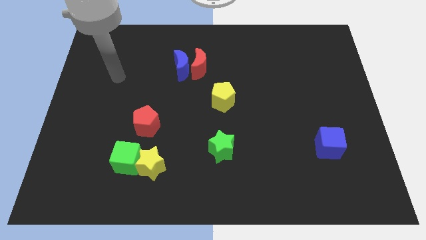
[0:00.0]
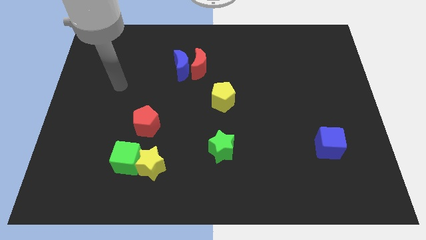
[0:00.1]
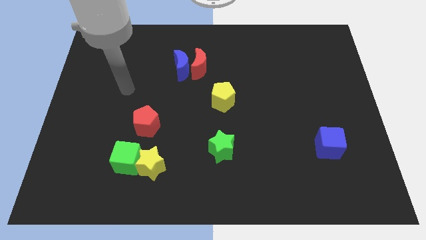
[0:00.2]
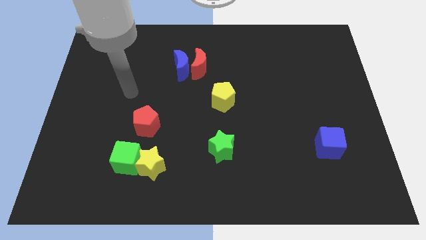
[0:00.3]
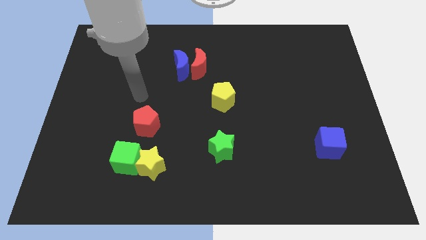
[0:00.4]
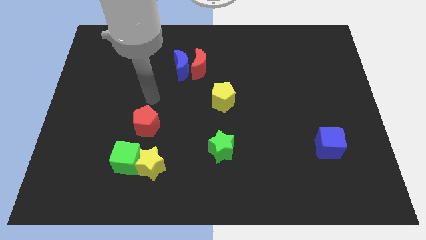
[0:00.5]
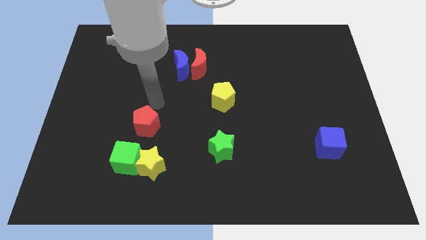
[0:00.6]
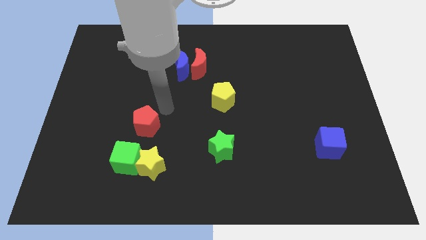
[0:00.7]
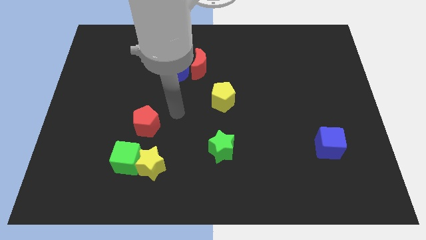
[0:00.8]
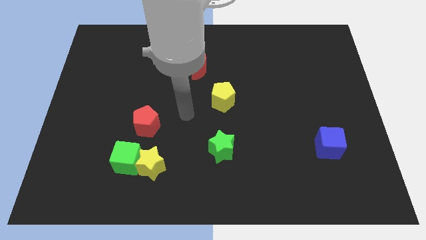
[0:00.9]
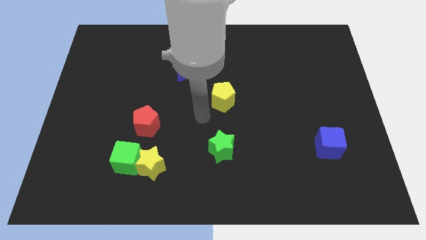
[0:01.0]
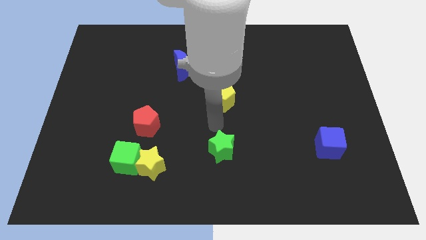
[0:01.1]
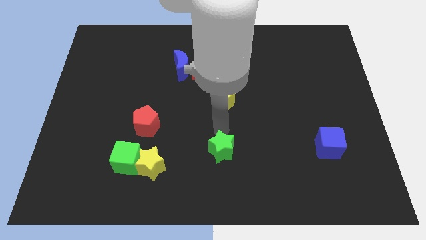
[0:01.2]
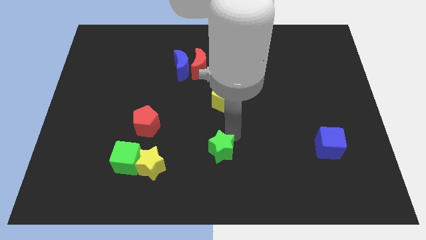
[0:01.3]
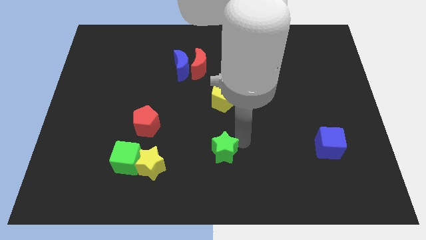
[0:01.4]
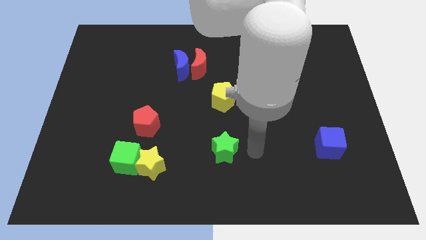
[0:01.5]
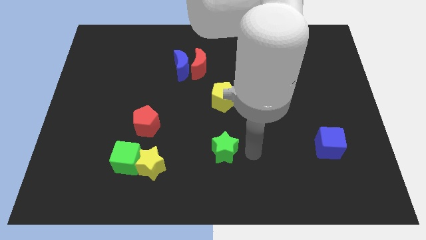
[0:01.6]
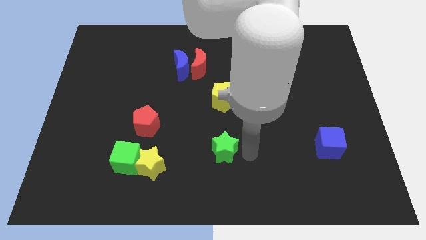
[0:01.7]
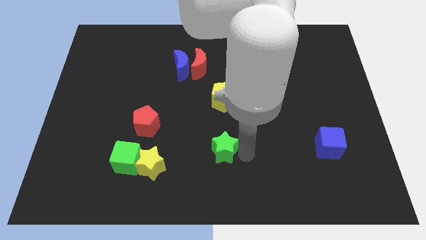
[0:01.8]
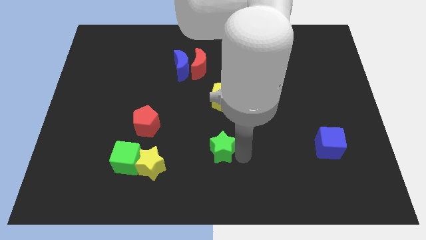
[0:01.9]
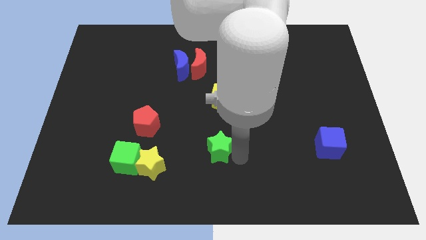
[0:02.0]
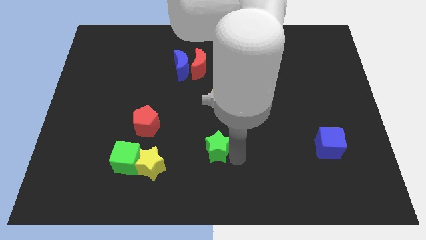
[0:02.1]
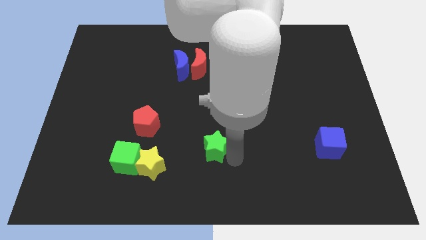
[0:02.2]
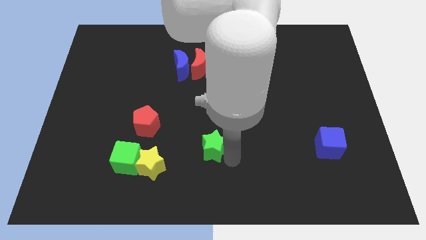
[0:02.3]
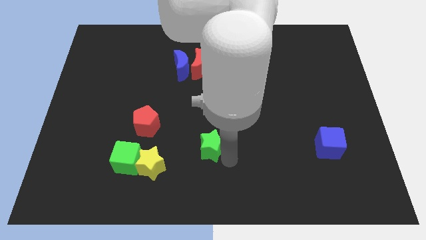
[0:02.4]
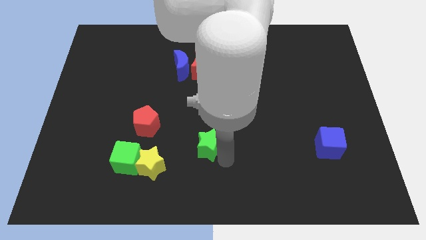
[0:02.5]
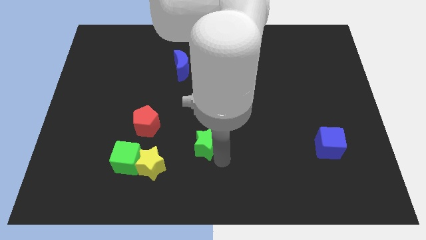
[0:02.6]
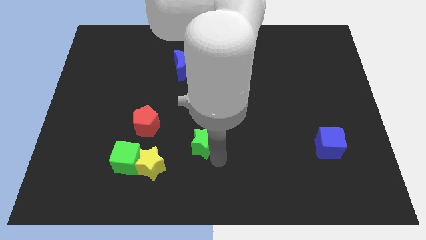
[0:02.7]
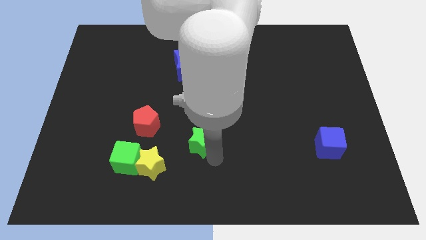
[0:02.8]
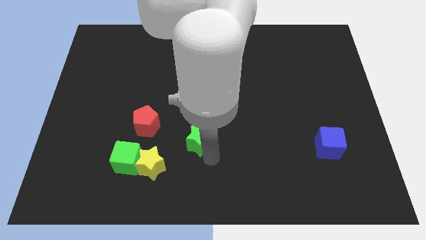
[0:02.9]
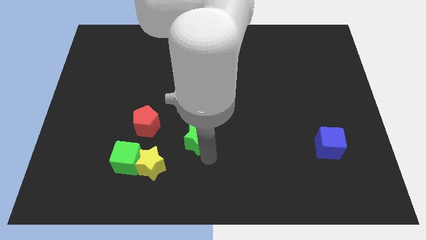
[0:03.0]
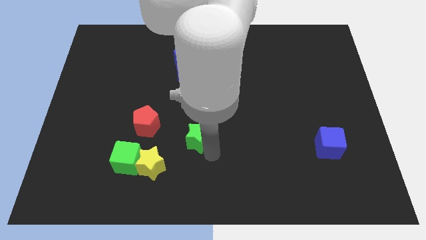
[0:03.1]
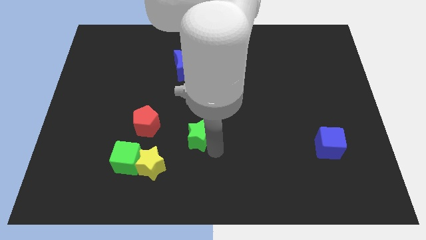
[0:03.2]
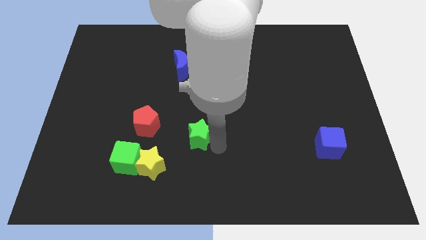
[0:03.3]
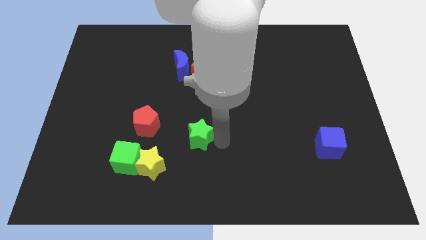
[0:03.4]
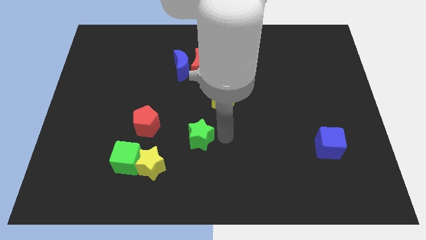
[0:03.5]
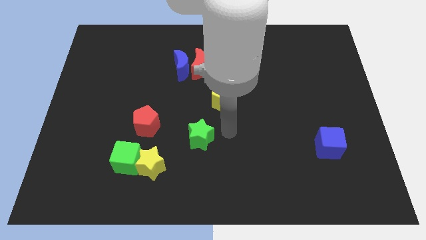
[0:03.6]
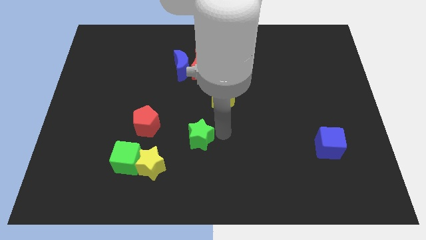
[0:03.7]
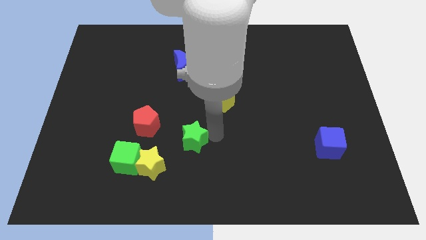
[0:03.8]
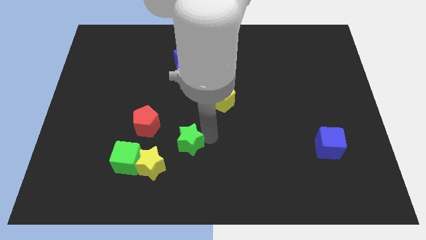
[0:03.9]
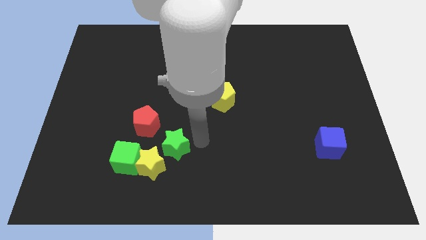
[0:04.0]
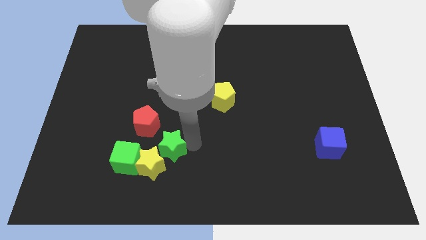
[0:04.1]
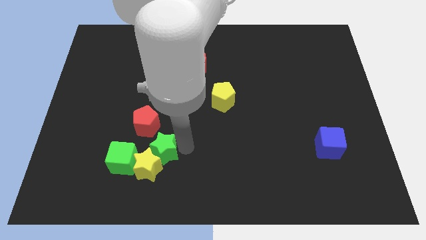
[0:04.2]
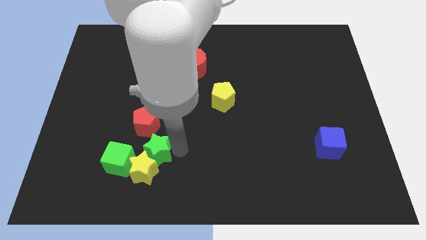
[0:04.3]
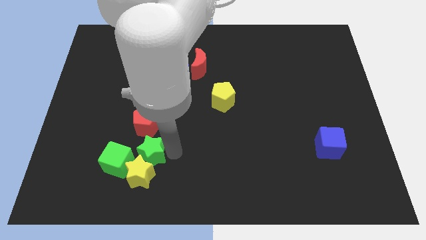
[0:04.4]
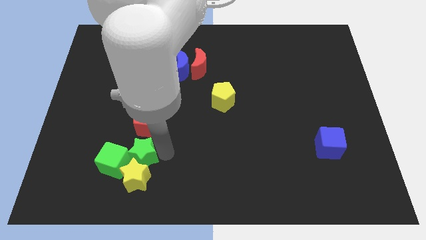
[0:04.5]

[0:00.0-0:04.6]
slide the green star to the green cube

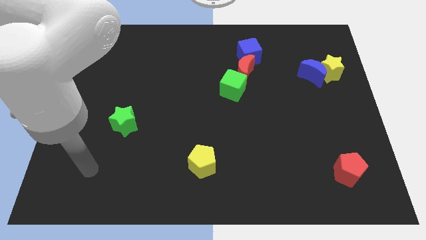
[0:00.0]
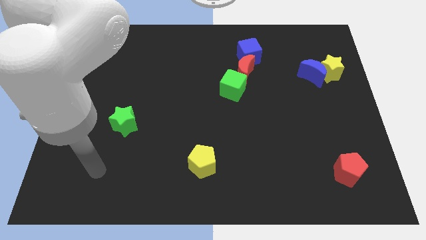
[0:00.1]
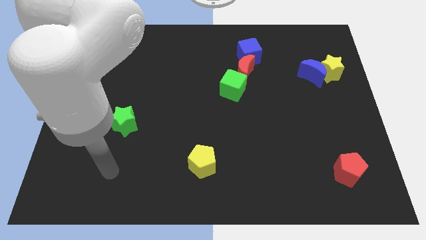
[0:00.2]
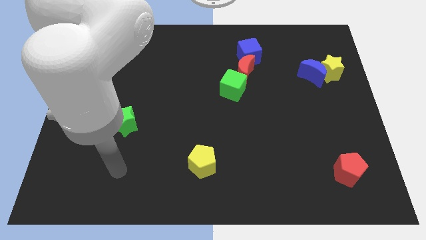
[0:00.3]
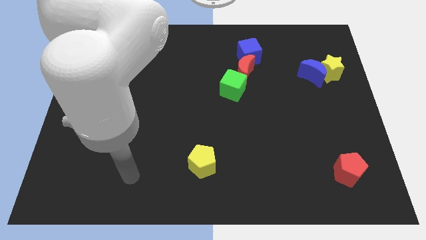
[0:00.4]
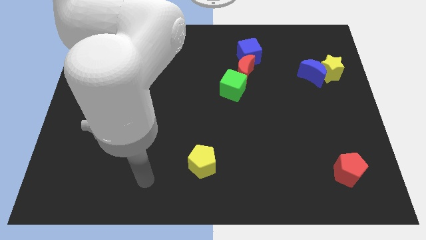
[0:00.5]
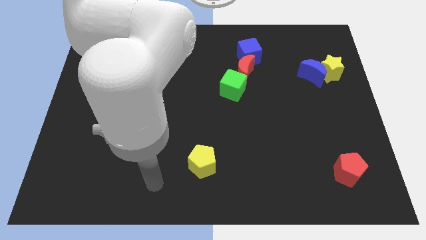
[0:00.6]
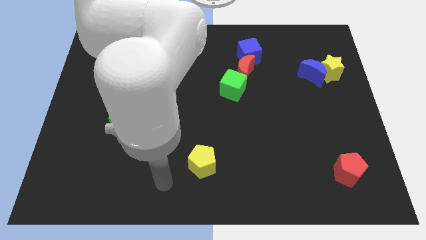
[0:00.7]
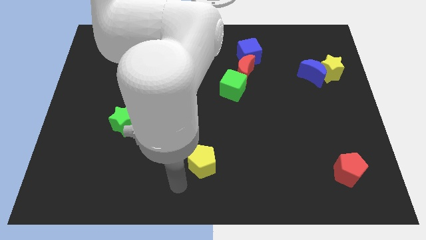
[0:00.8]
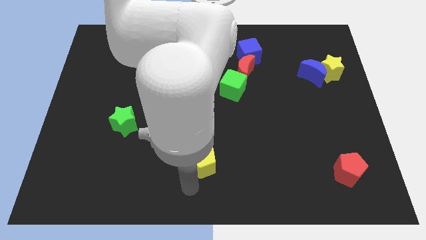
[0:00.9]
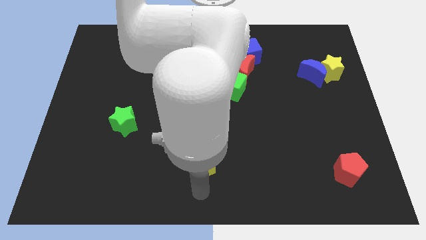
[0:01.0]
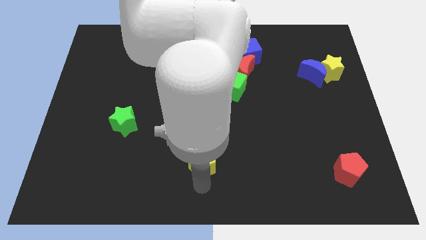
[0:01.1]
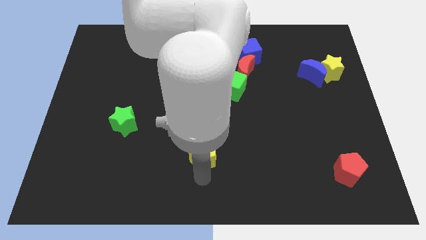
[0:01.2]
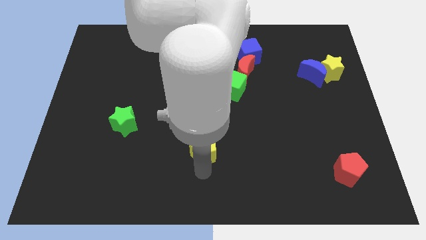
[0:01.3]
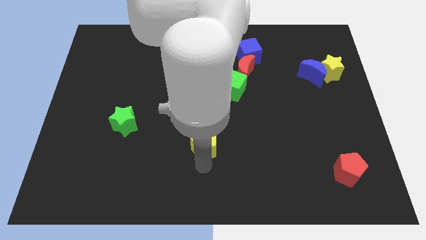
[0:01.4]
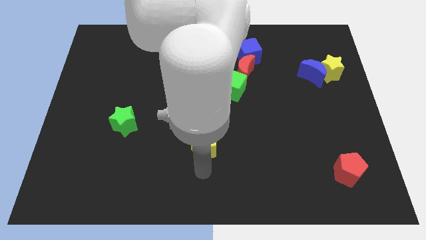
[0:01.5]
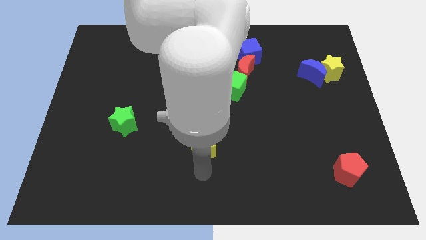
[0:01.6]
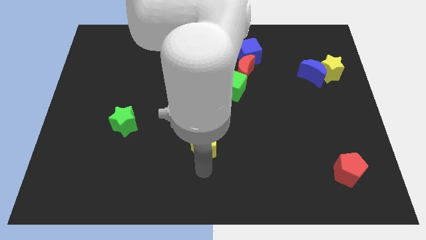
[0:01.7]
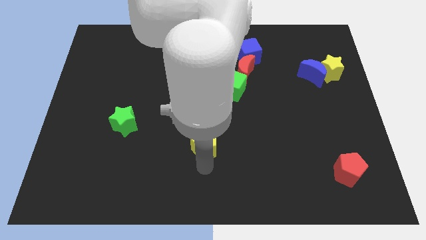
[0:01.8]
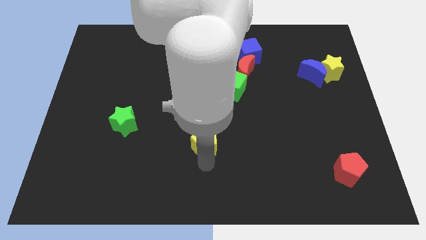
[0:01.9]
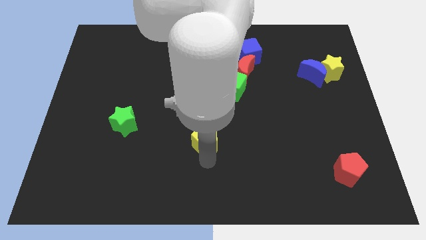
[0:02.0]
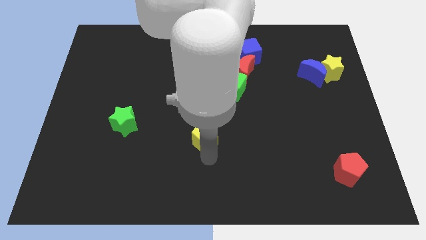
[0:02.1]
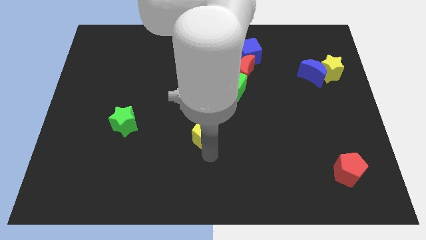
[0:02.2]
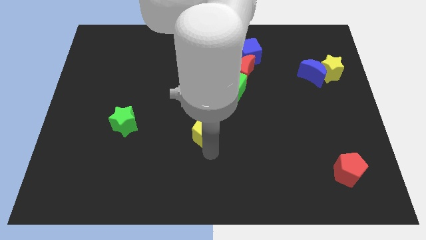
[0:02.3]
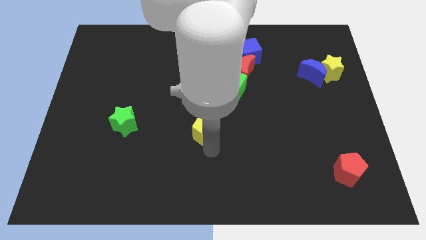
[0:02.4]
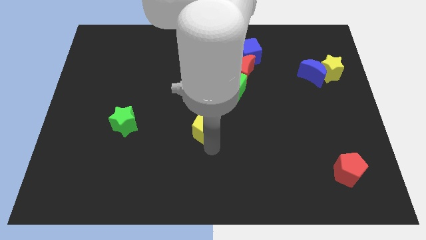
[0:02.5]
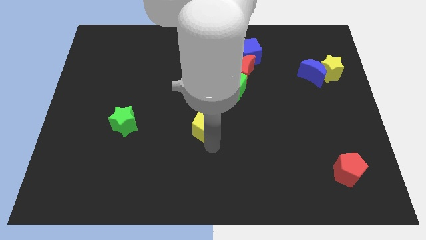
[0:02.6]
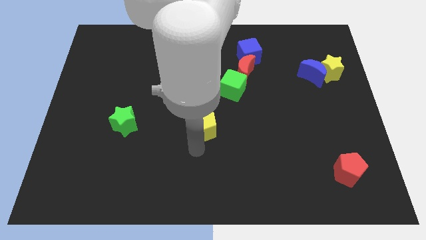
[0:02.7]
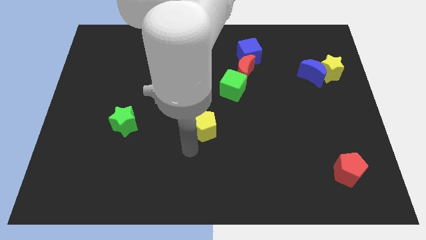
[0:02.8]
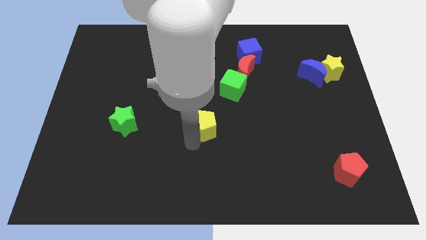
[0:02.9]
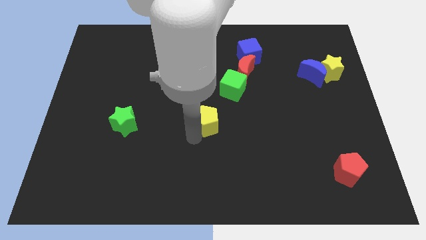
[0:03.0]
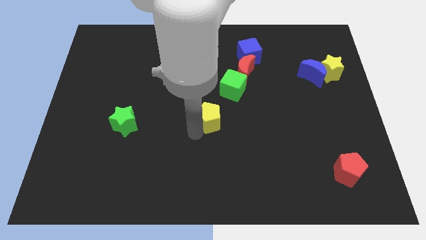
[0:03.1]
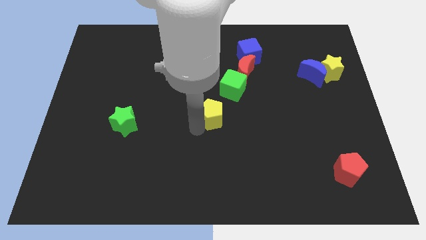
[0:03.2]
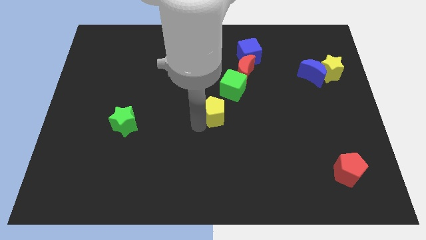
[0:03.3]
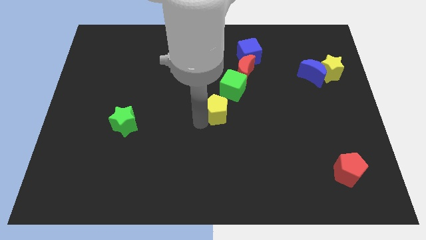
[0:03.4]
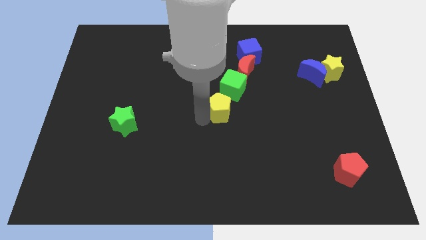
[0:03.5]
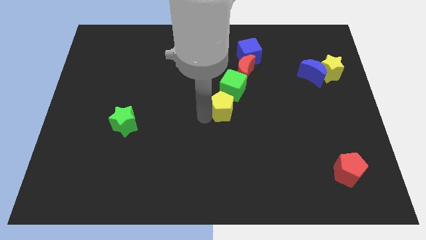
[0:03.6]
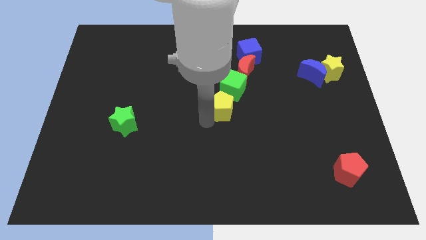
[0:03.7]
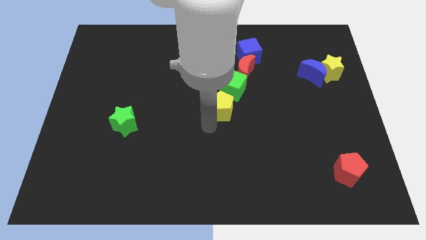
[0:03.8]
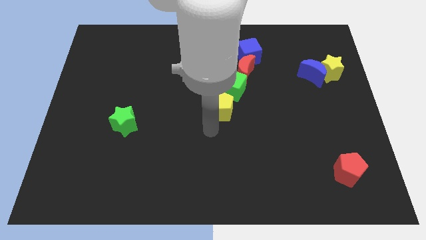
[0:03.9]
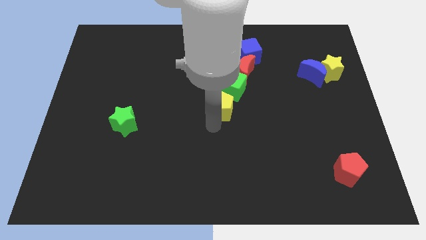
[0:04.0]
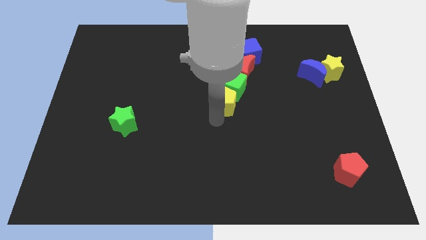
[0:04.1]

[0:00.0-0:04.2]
put the yellow pentagon towards the green cube
